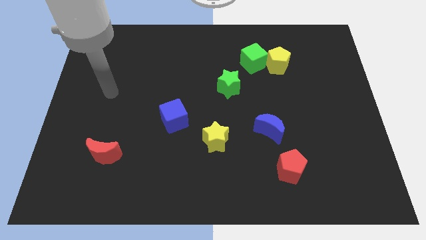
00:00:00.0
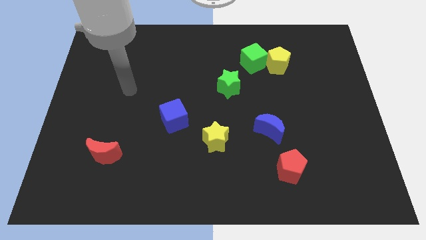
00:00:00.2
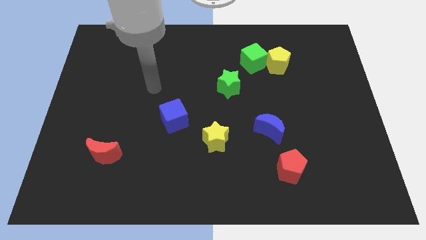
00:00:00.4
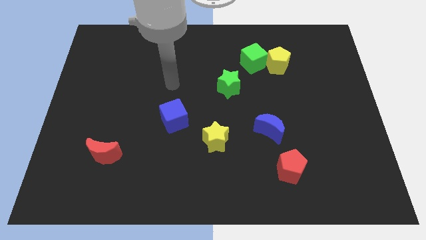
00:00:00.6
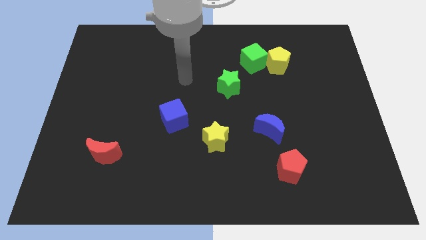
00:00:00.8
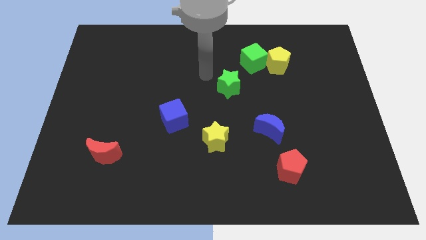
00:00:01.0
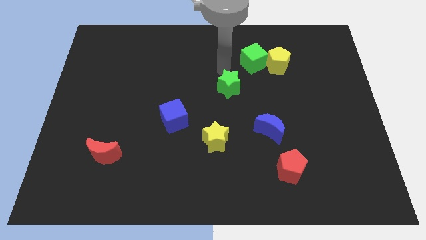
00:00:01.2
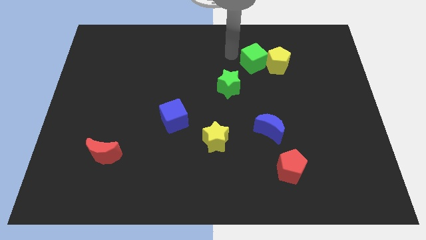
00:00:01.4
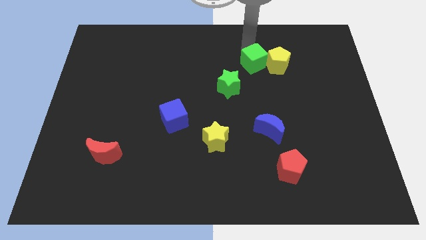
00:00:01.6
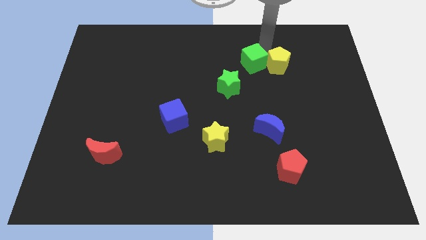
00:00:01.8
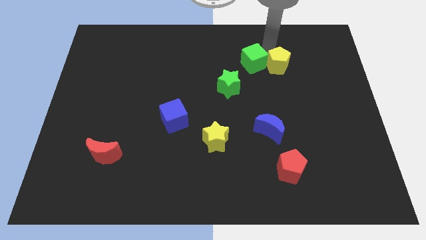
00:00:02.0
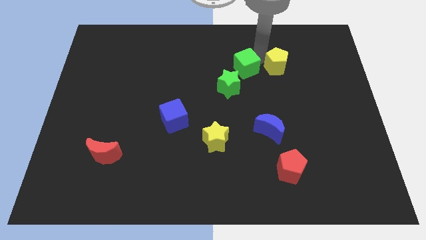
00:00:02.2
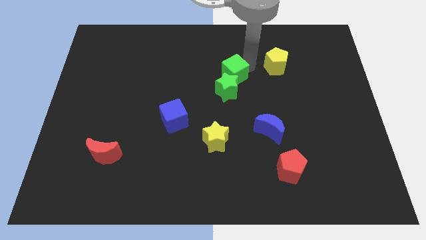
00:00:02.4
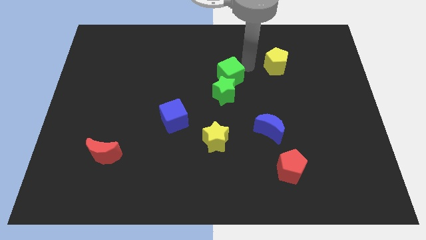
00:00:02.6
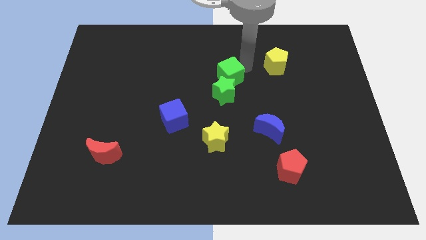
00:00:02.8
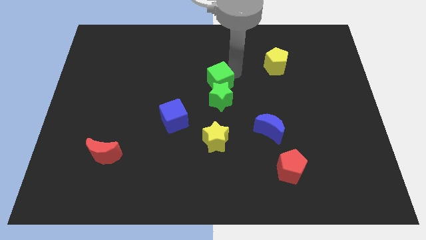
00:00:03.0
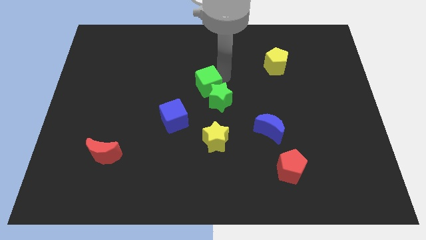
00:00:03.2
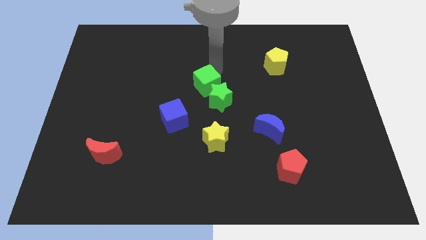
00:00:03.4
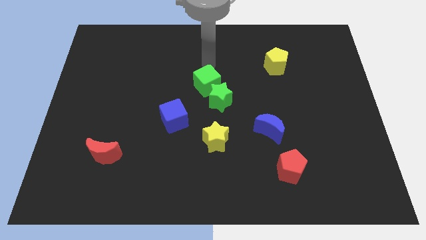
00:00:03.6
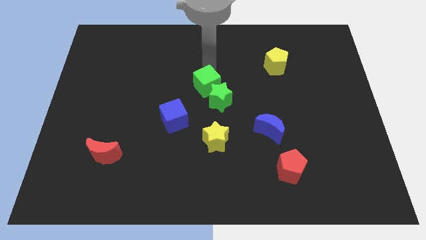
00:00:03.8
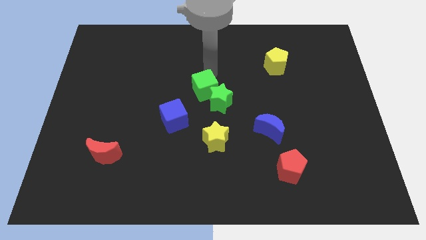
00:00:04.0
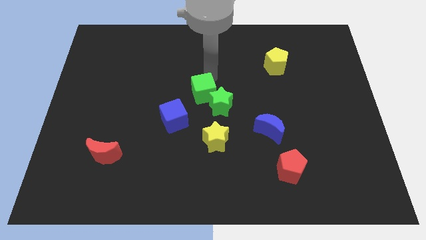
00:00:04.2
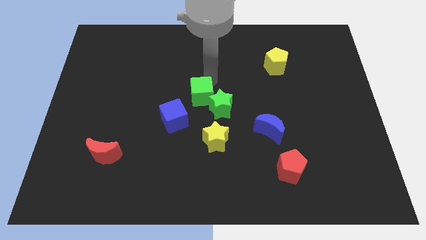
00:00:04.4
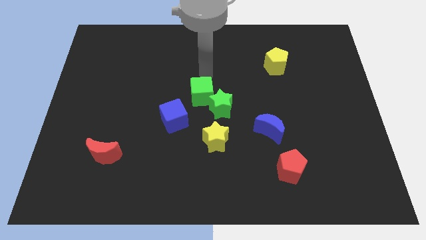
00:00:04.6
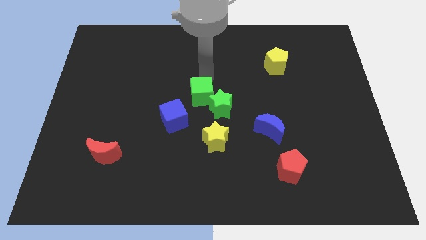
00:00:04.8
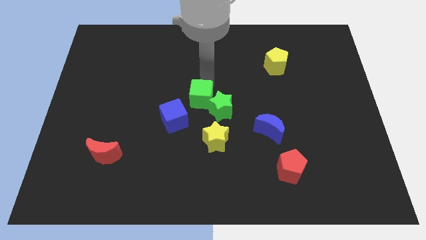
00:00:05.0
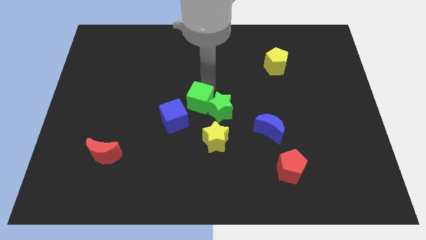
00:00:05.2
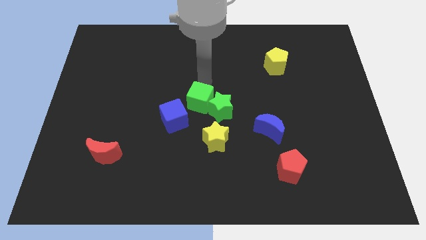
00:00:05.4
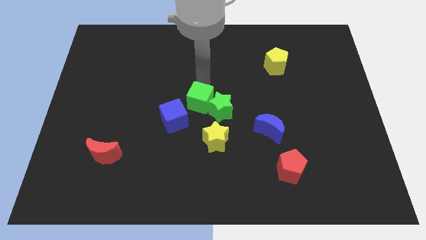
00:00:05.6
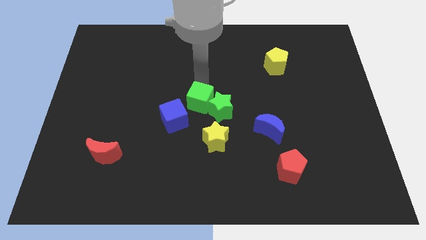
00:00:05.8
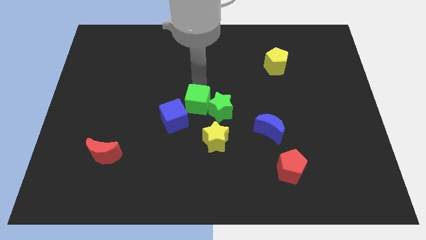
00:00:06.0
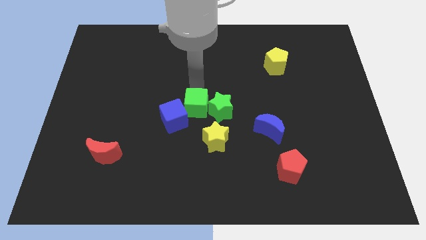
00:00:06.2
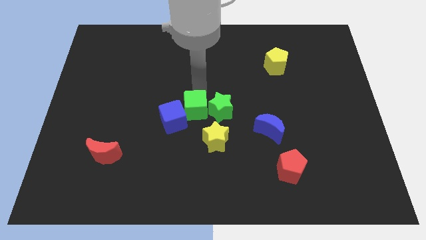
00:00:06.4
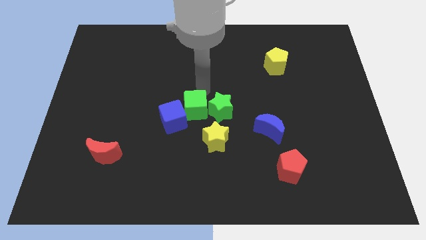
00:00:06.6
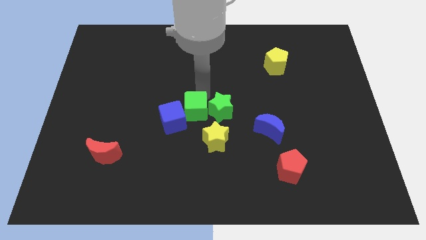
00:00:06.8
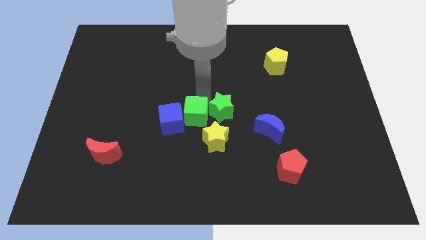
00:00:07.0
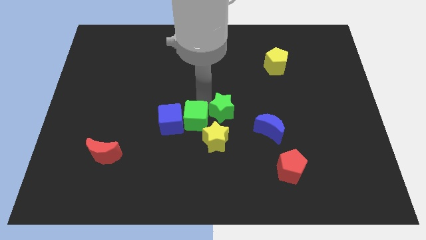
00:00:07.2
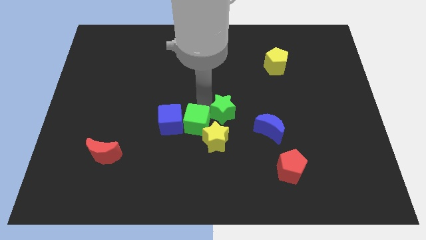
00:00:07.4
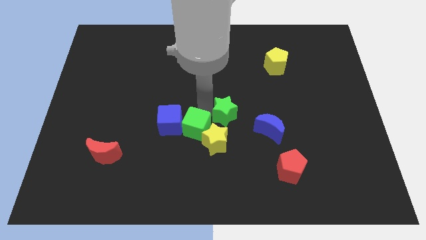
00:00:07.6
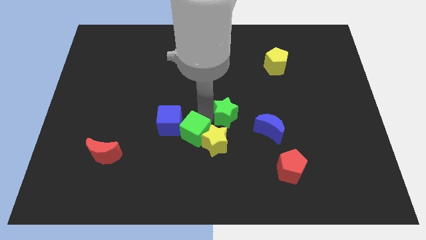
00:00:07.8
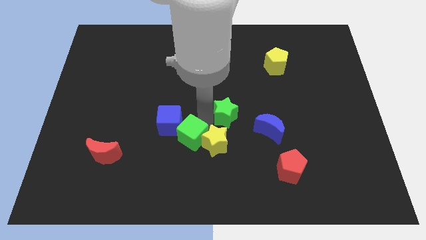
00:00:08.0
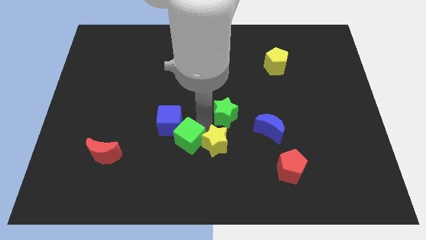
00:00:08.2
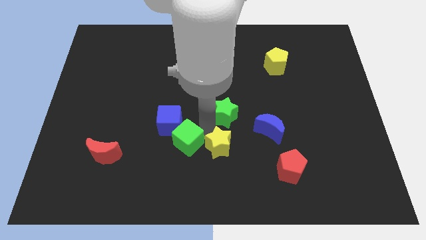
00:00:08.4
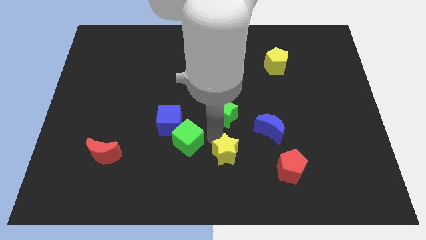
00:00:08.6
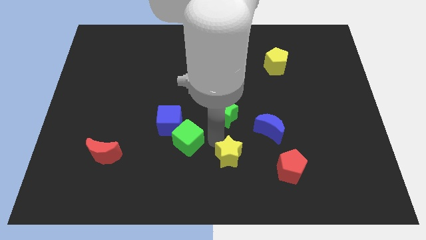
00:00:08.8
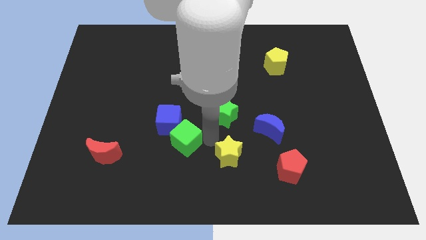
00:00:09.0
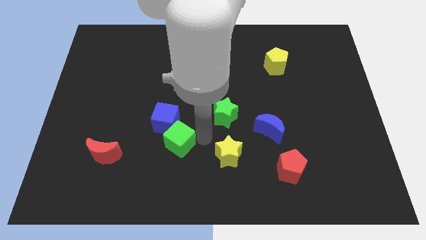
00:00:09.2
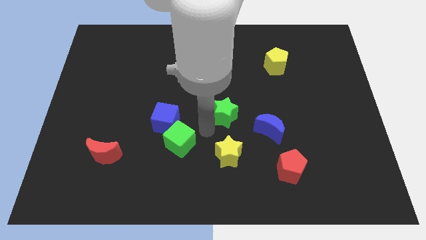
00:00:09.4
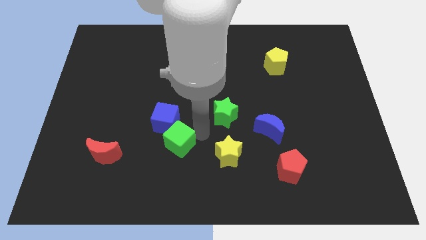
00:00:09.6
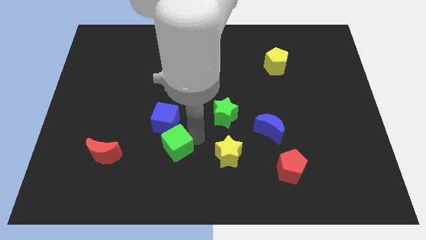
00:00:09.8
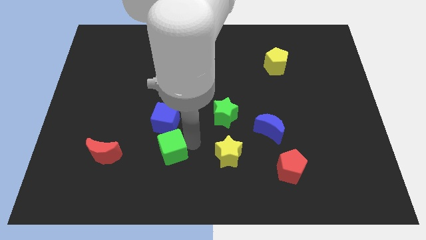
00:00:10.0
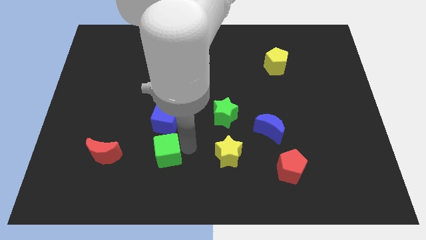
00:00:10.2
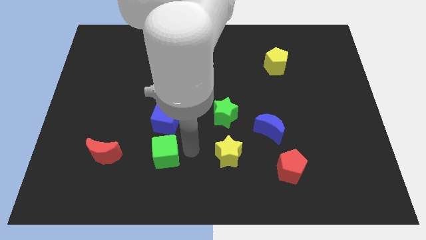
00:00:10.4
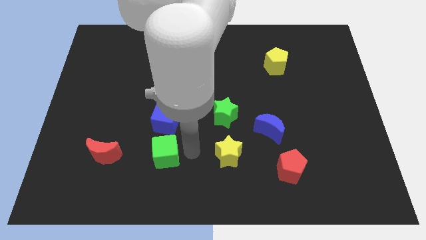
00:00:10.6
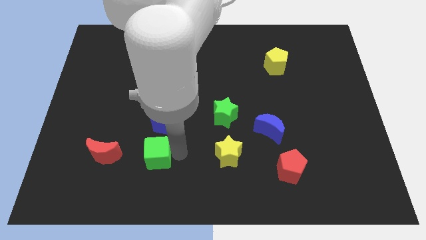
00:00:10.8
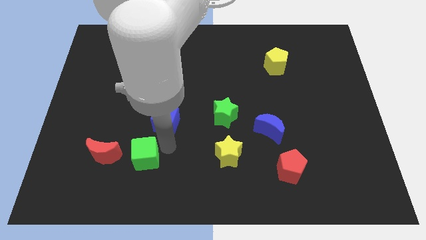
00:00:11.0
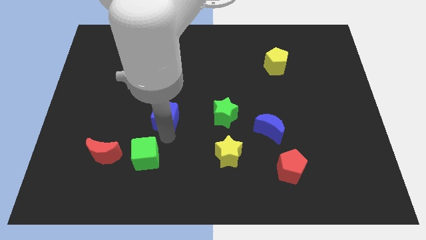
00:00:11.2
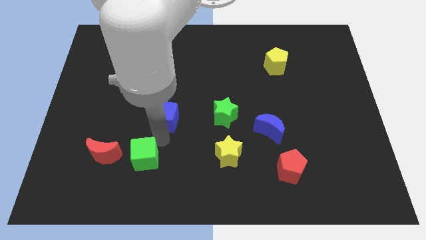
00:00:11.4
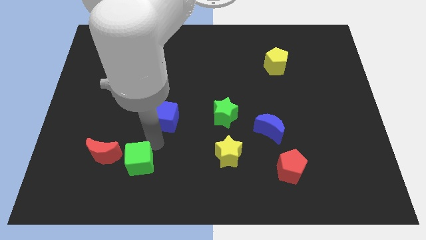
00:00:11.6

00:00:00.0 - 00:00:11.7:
slide the green cube to the bottom right of the red moon

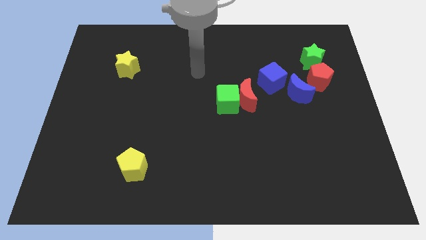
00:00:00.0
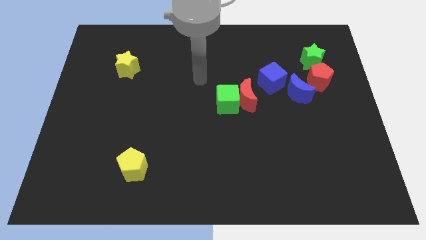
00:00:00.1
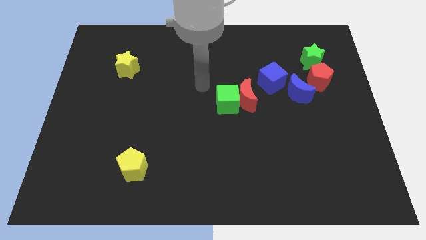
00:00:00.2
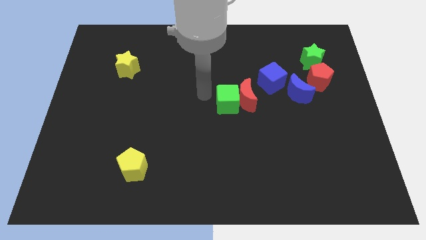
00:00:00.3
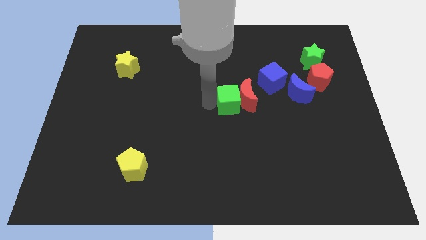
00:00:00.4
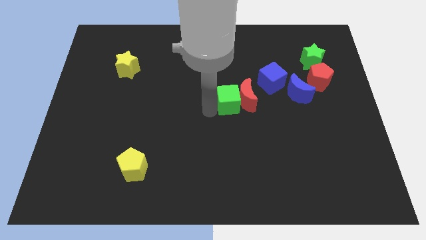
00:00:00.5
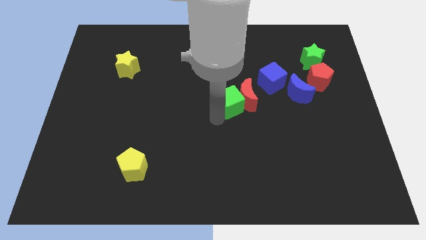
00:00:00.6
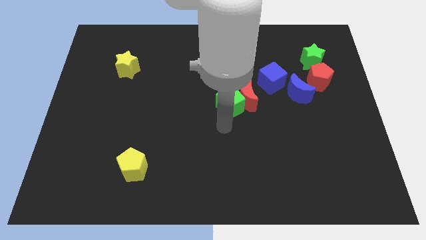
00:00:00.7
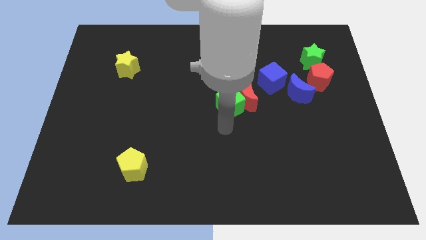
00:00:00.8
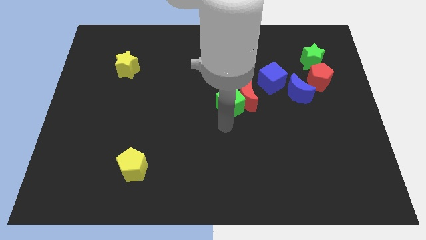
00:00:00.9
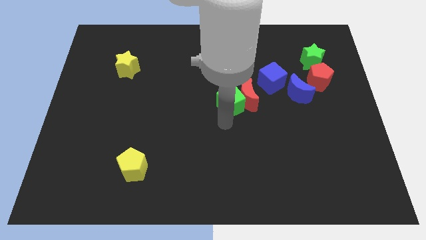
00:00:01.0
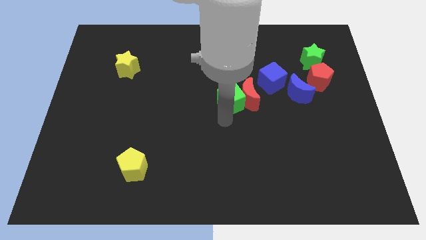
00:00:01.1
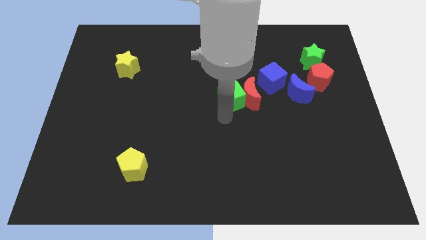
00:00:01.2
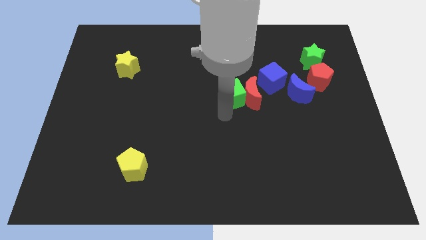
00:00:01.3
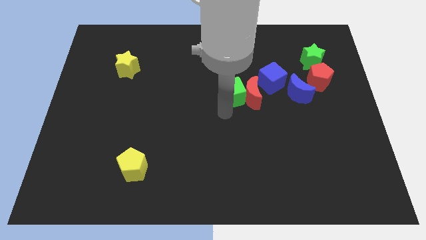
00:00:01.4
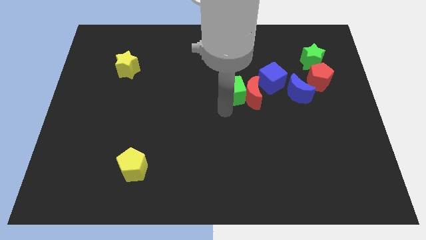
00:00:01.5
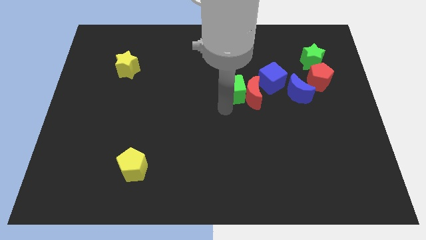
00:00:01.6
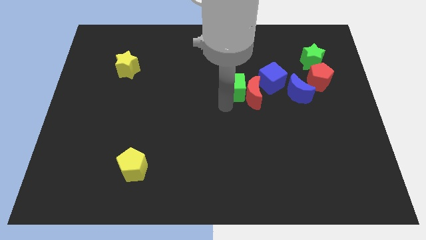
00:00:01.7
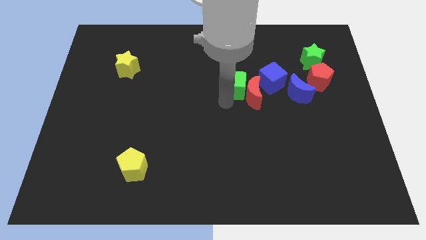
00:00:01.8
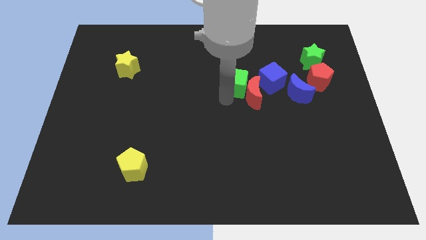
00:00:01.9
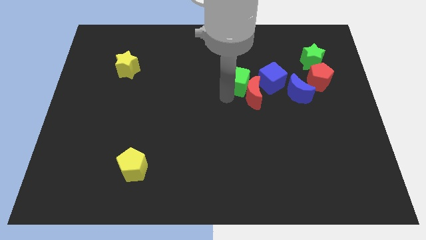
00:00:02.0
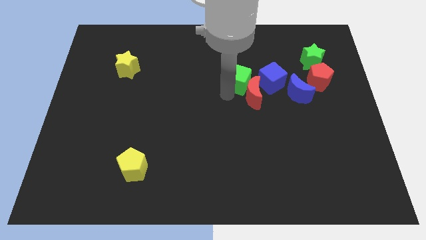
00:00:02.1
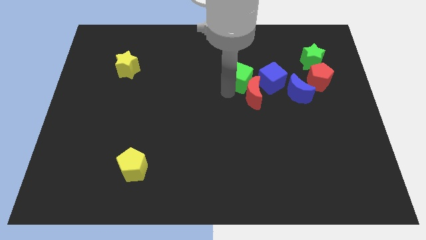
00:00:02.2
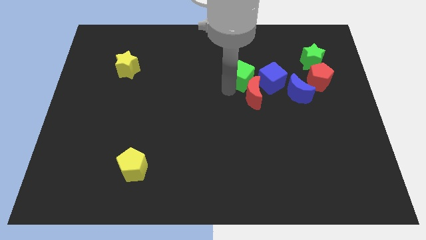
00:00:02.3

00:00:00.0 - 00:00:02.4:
move the green cube to the top left side of the blue cube
